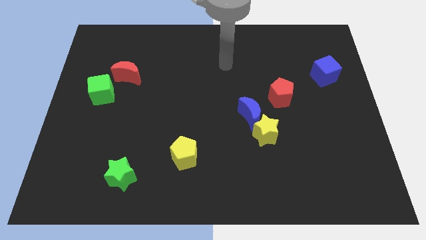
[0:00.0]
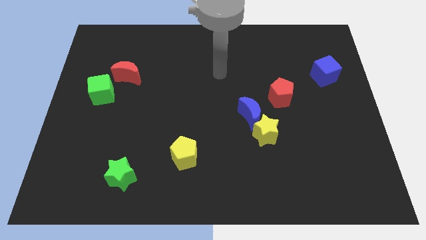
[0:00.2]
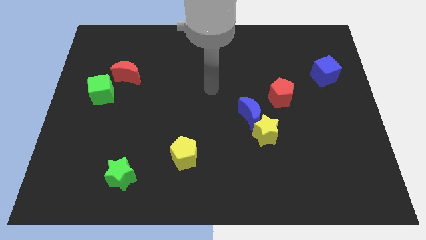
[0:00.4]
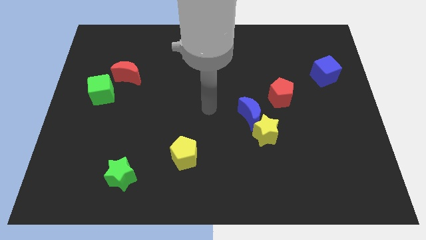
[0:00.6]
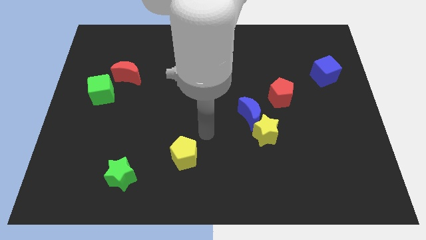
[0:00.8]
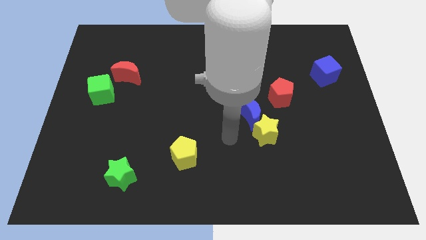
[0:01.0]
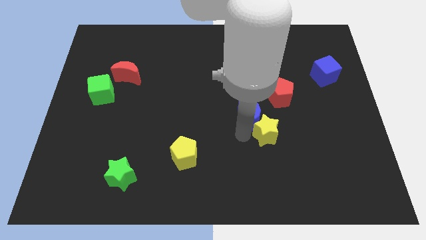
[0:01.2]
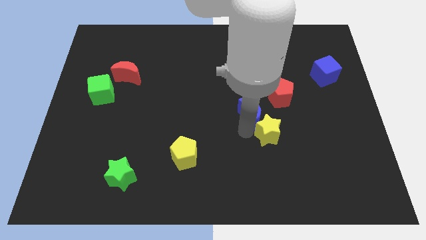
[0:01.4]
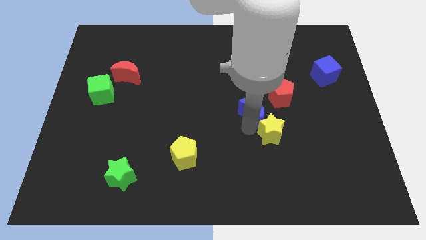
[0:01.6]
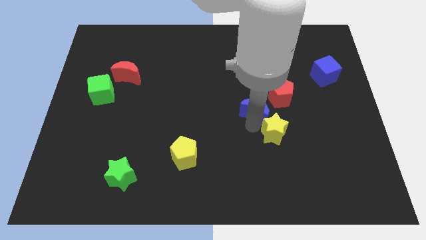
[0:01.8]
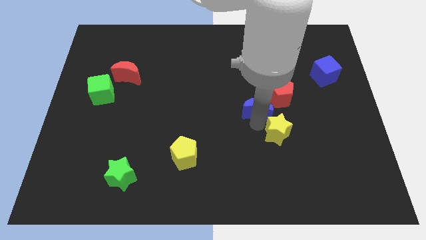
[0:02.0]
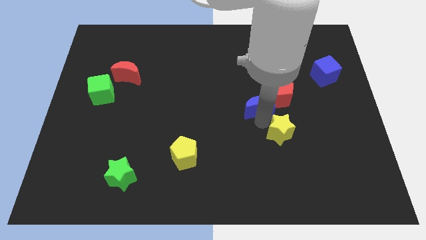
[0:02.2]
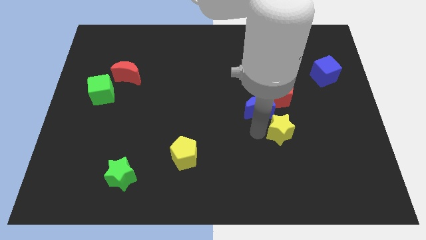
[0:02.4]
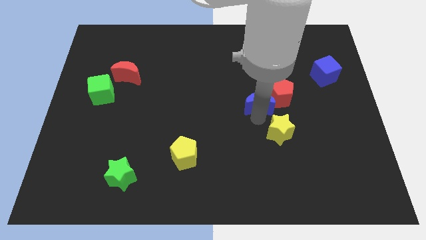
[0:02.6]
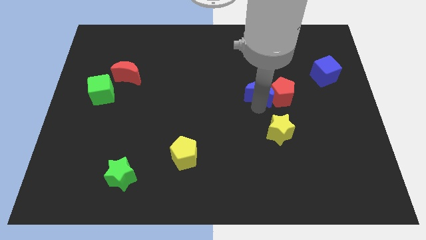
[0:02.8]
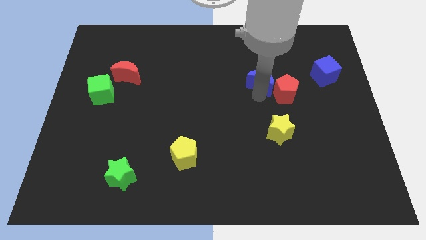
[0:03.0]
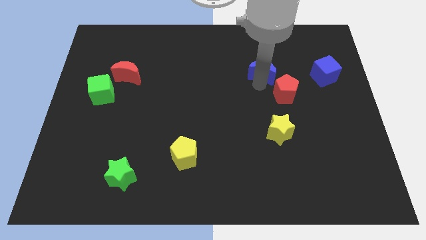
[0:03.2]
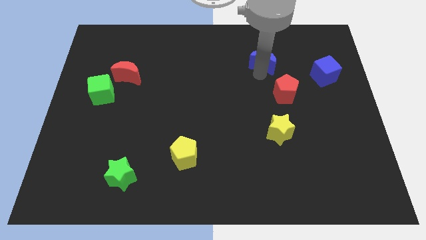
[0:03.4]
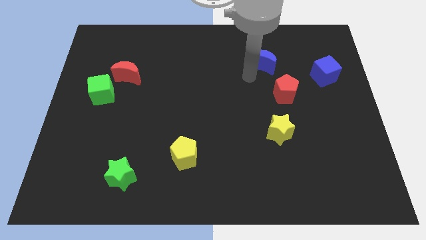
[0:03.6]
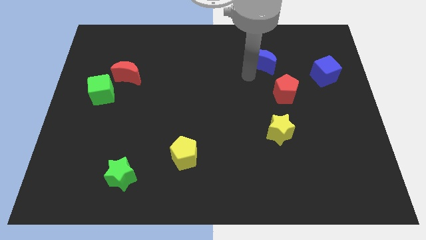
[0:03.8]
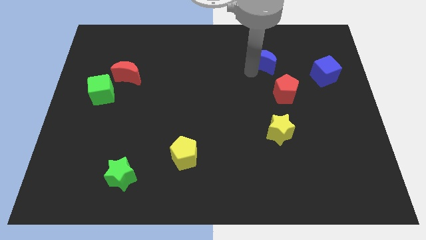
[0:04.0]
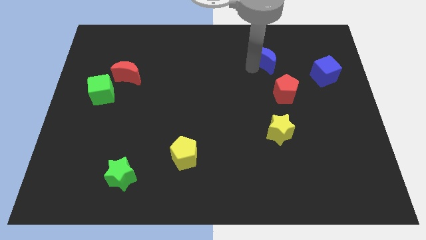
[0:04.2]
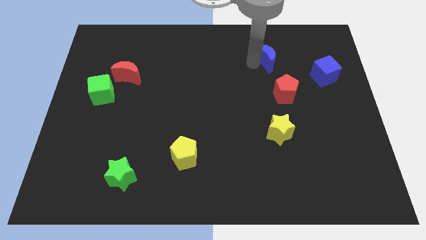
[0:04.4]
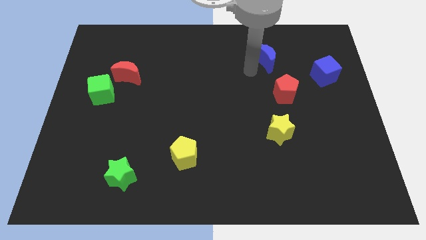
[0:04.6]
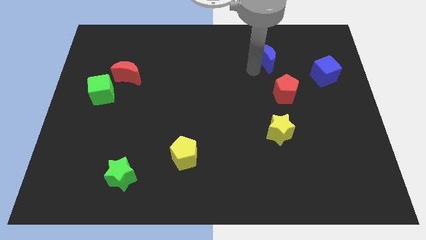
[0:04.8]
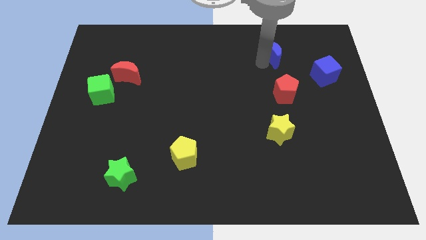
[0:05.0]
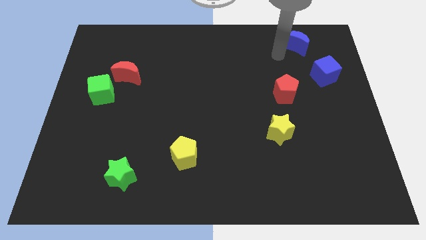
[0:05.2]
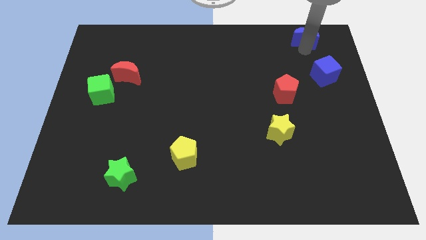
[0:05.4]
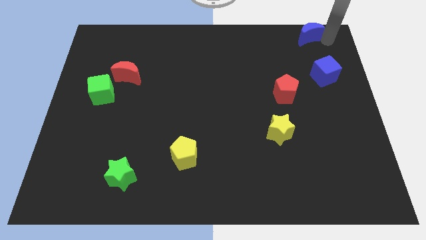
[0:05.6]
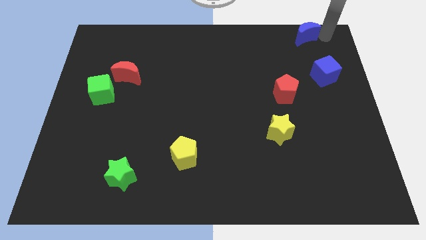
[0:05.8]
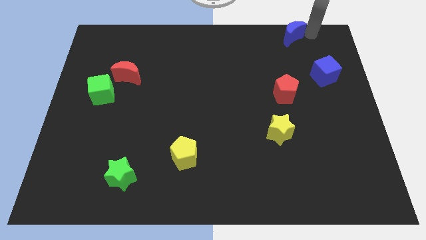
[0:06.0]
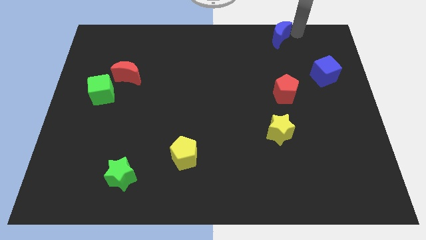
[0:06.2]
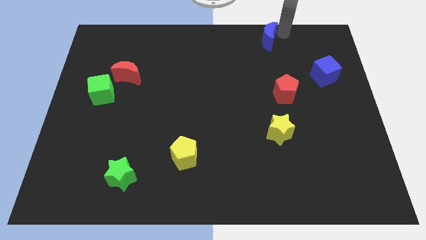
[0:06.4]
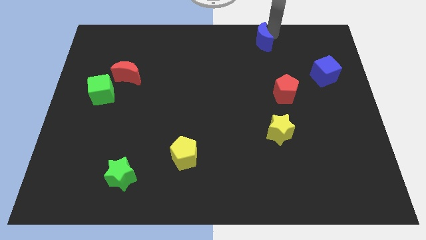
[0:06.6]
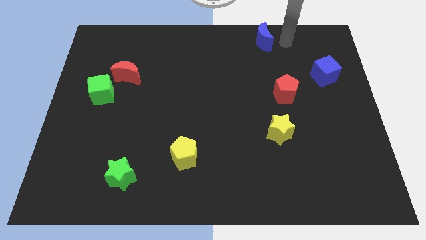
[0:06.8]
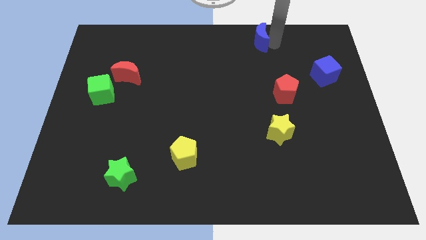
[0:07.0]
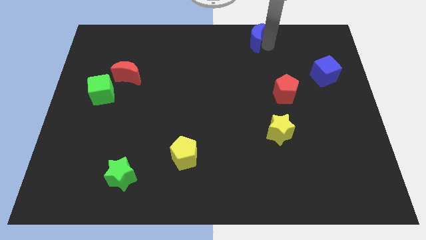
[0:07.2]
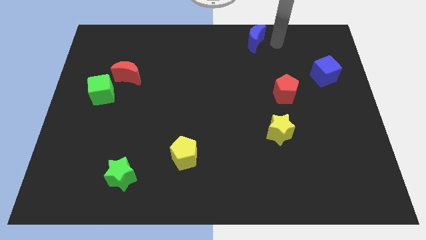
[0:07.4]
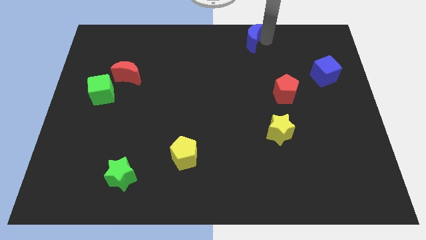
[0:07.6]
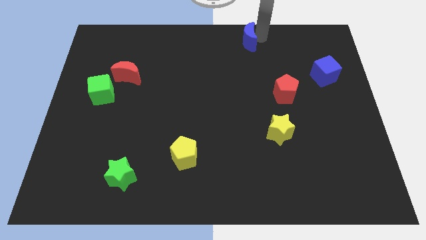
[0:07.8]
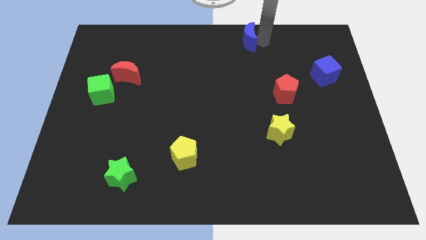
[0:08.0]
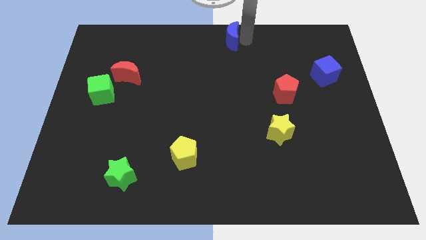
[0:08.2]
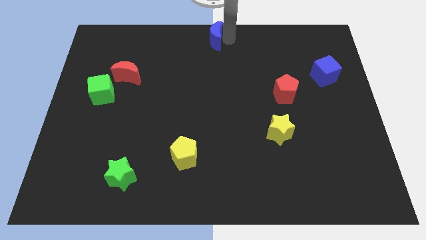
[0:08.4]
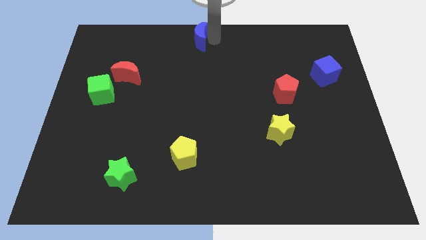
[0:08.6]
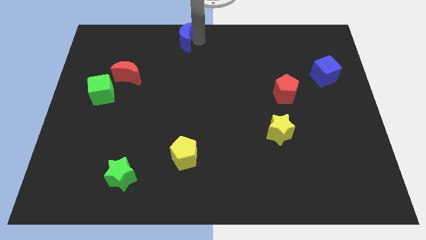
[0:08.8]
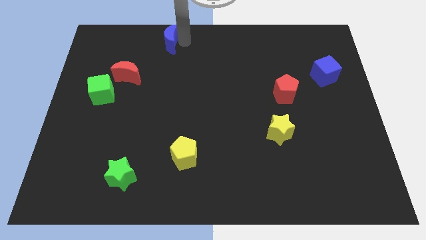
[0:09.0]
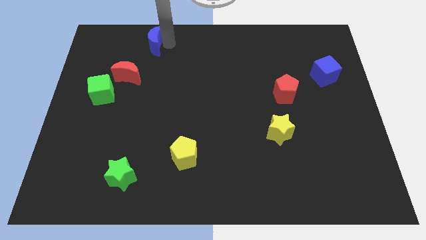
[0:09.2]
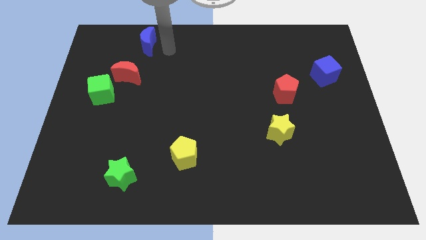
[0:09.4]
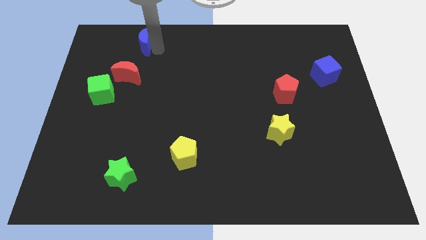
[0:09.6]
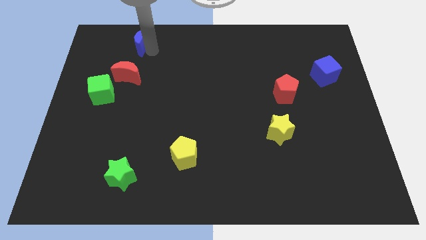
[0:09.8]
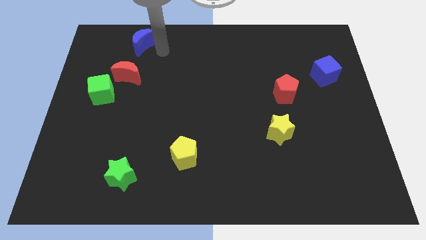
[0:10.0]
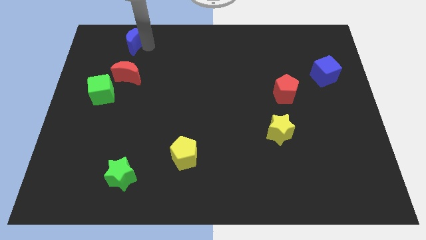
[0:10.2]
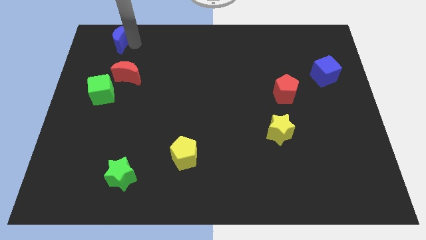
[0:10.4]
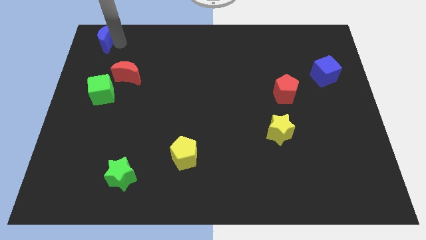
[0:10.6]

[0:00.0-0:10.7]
slide the blue moon to the top left corner
